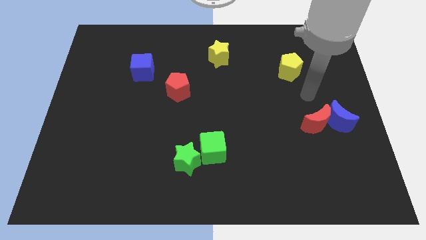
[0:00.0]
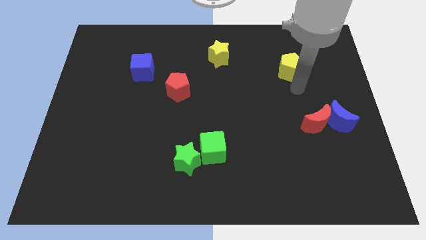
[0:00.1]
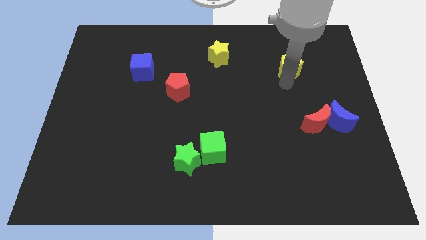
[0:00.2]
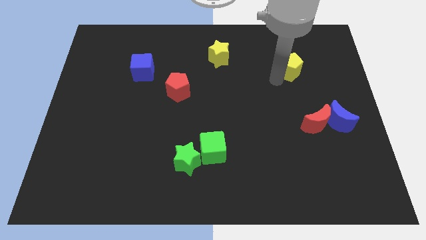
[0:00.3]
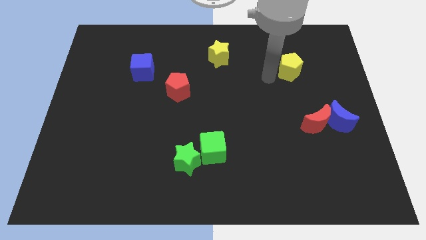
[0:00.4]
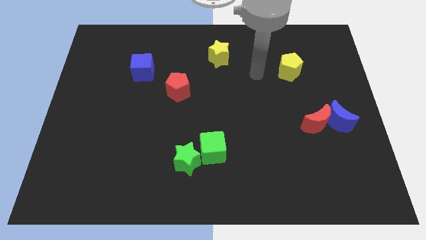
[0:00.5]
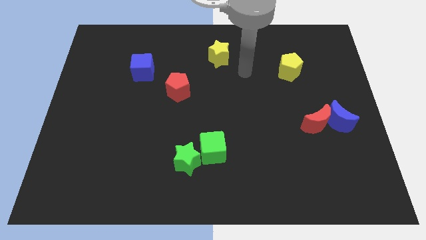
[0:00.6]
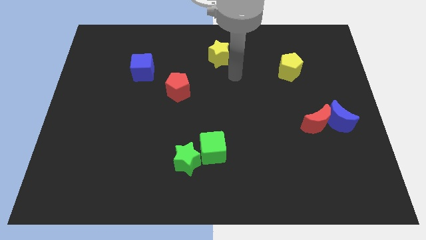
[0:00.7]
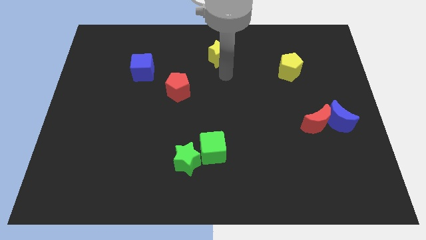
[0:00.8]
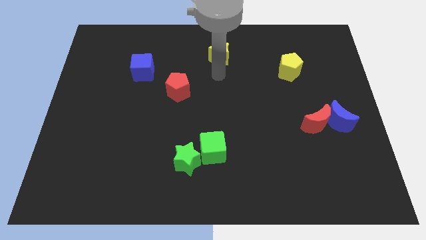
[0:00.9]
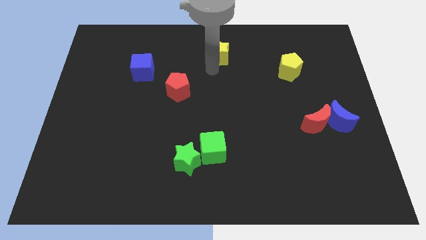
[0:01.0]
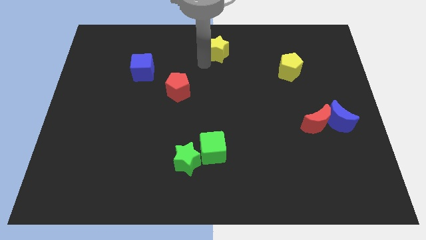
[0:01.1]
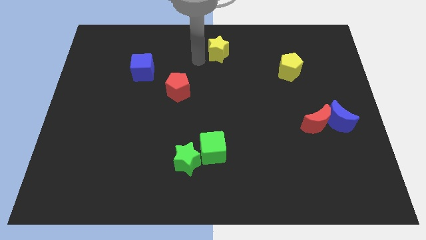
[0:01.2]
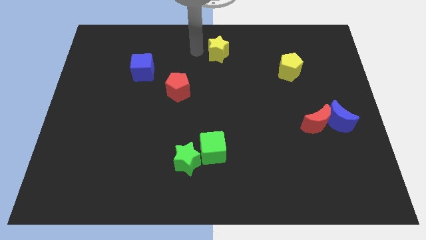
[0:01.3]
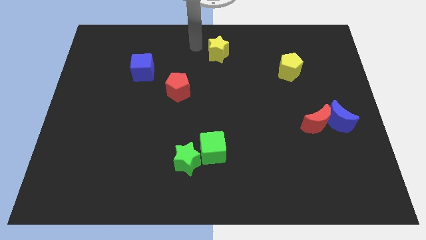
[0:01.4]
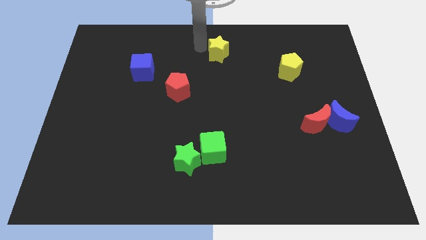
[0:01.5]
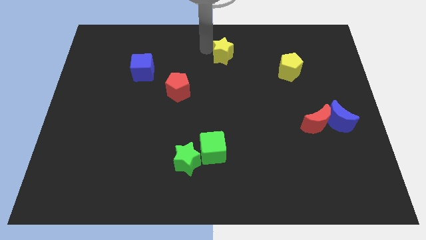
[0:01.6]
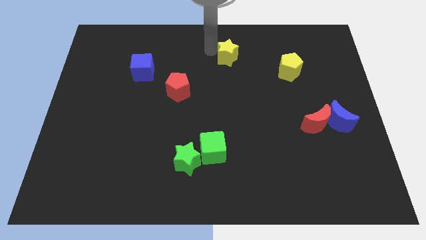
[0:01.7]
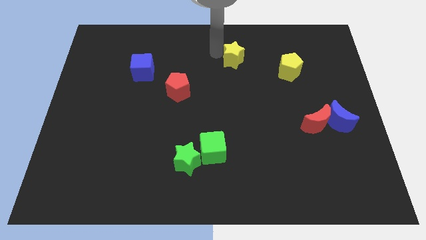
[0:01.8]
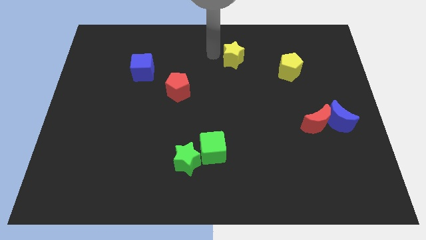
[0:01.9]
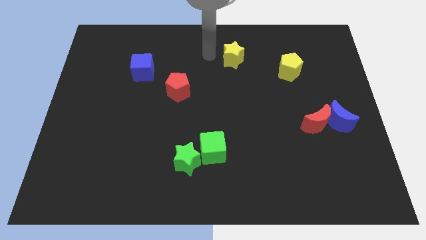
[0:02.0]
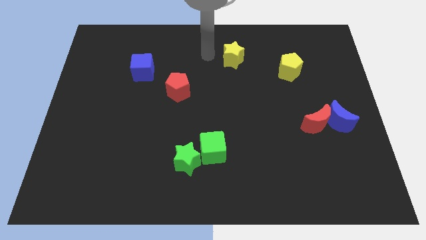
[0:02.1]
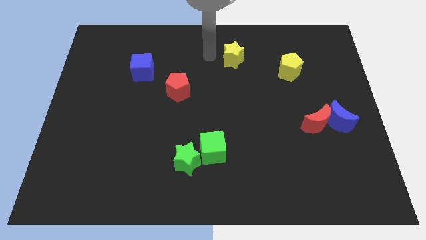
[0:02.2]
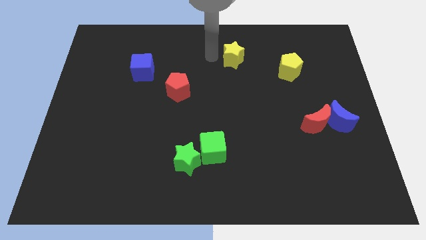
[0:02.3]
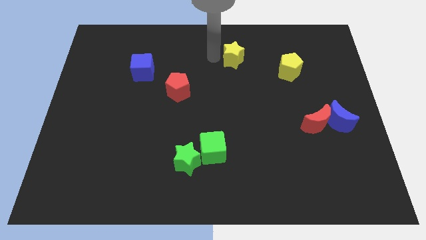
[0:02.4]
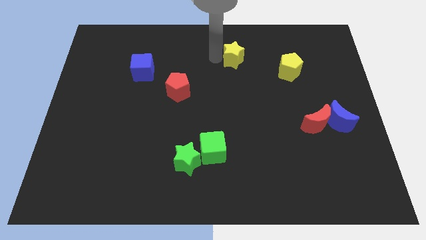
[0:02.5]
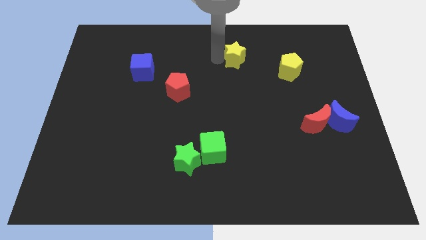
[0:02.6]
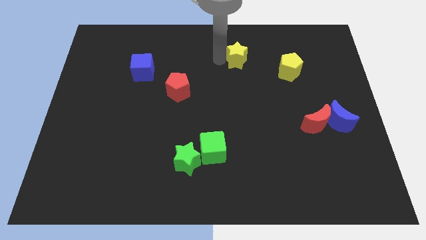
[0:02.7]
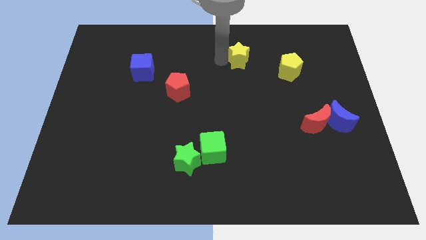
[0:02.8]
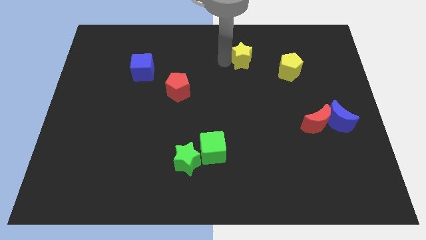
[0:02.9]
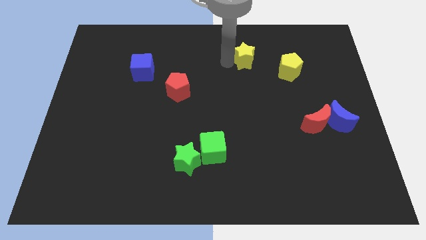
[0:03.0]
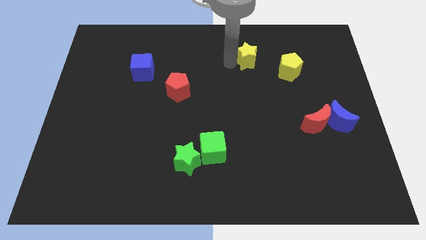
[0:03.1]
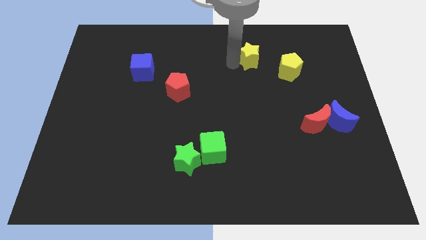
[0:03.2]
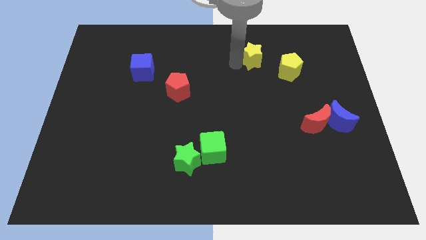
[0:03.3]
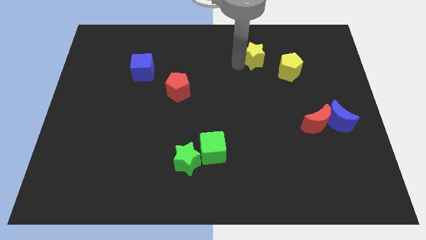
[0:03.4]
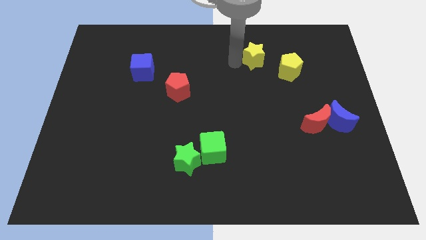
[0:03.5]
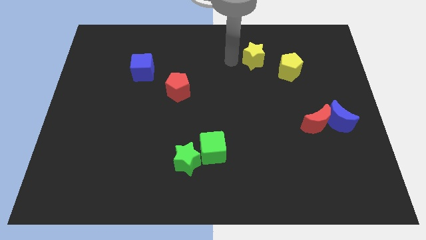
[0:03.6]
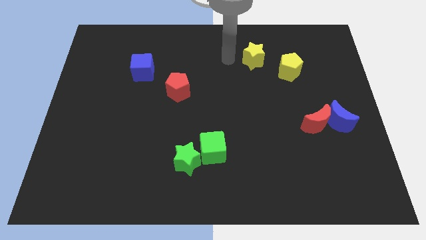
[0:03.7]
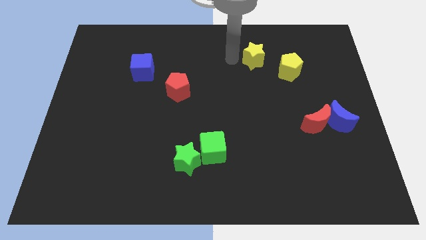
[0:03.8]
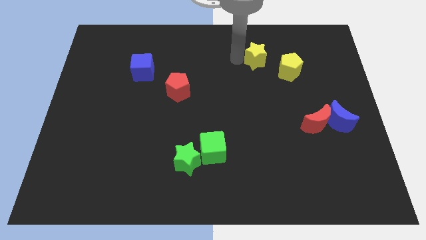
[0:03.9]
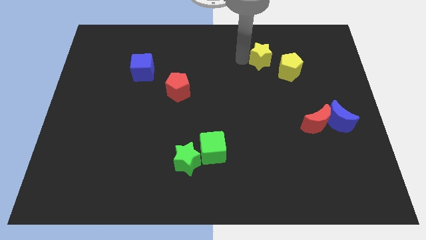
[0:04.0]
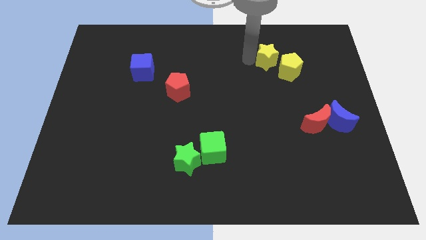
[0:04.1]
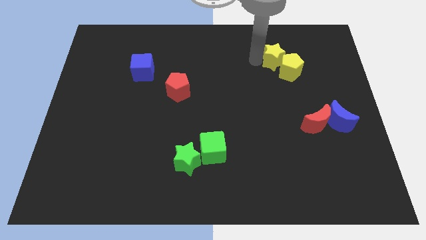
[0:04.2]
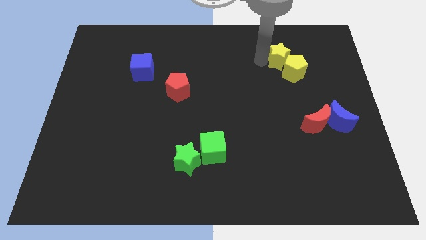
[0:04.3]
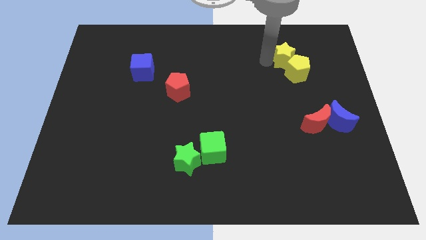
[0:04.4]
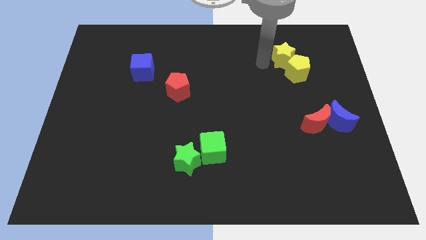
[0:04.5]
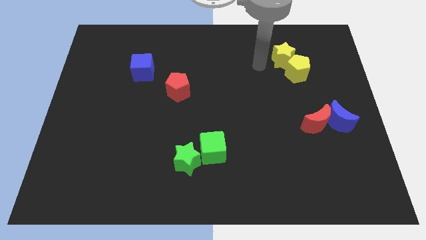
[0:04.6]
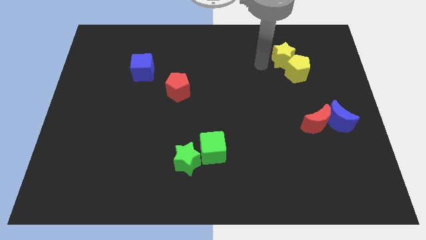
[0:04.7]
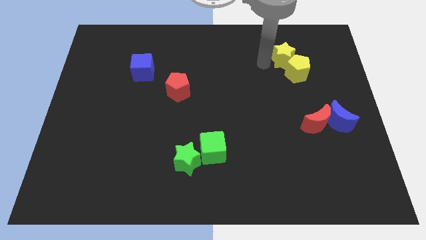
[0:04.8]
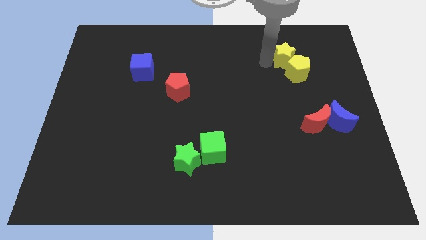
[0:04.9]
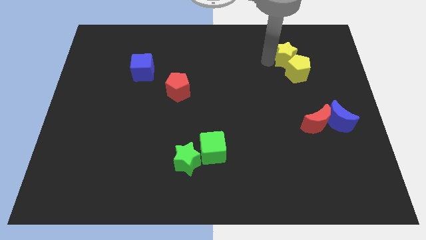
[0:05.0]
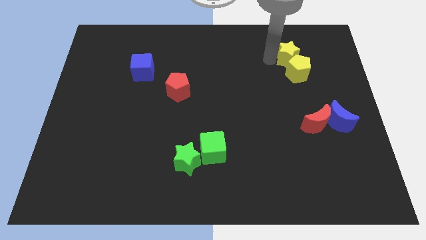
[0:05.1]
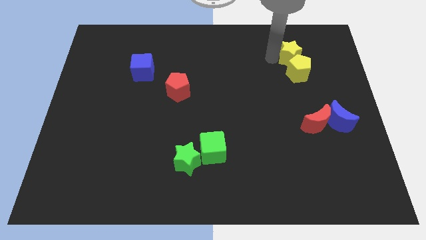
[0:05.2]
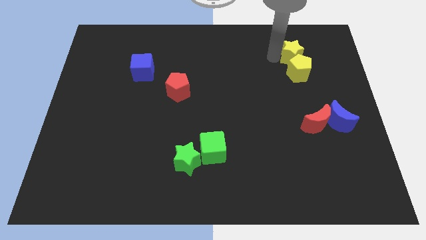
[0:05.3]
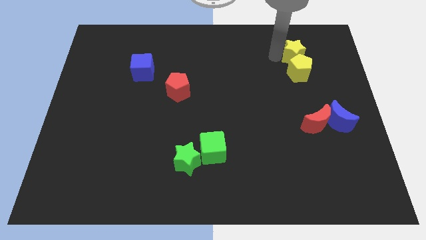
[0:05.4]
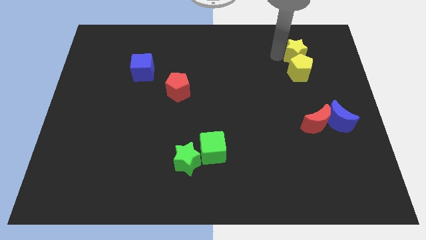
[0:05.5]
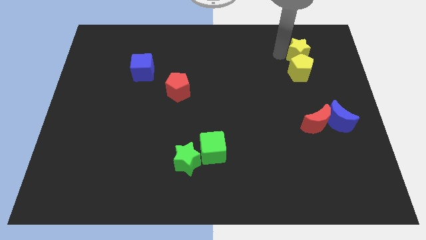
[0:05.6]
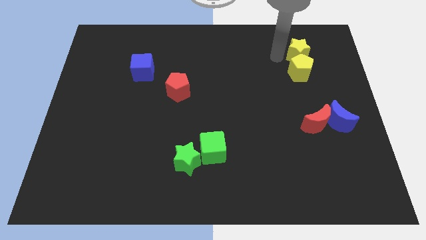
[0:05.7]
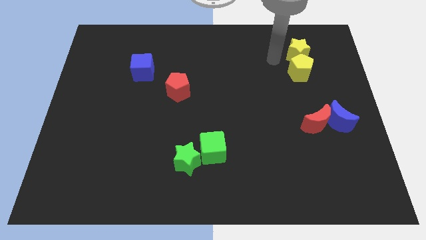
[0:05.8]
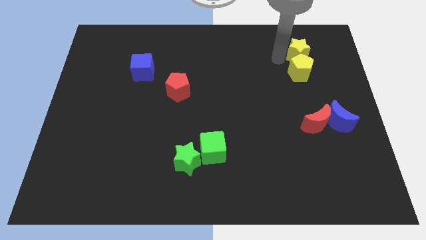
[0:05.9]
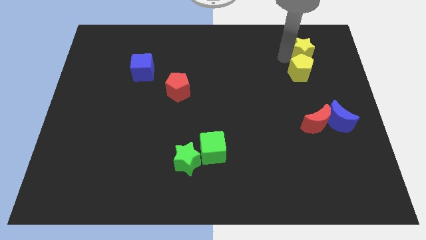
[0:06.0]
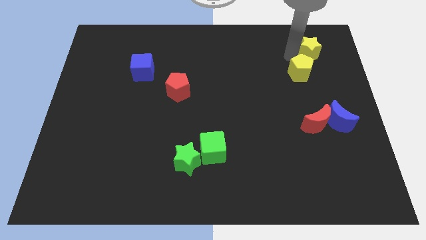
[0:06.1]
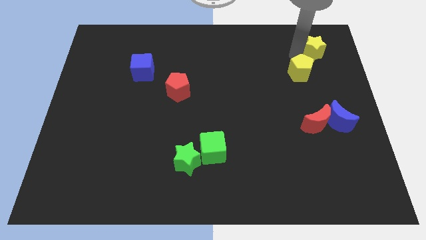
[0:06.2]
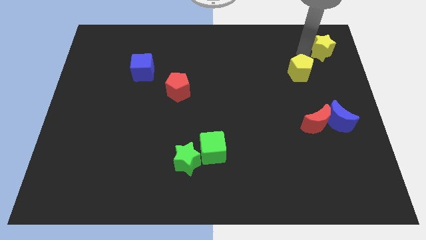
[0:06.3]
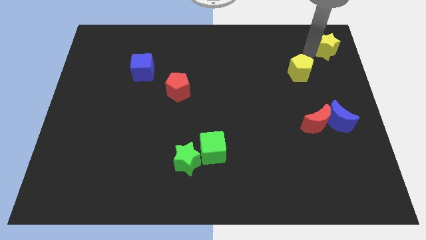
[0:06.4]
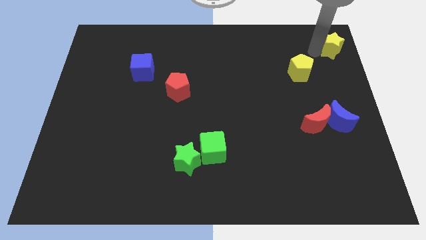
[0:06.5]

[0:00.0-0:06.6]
put the yellow star to the top right of the board
